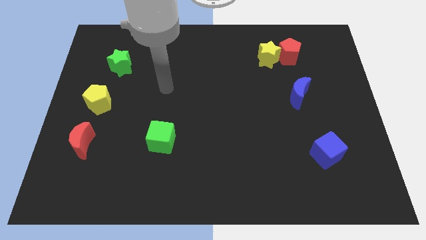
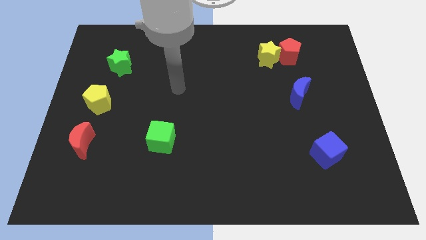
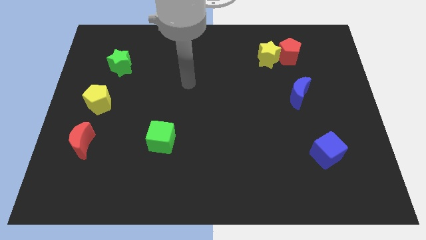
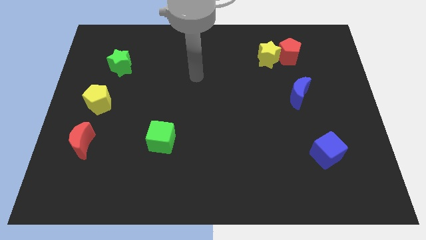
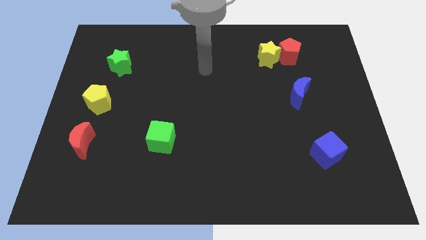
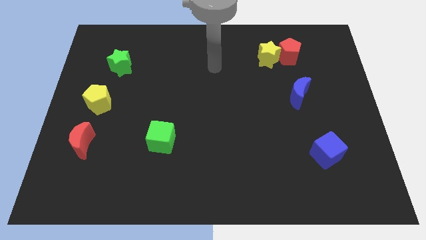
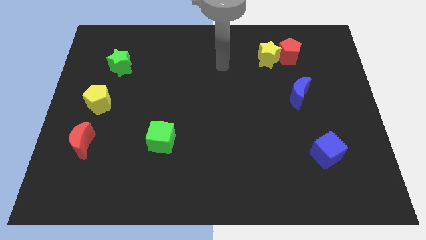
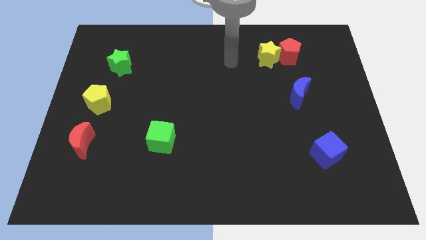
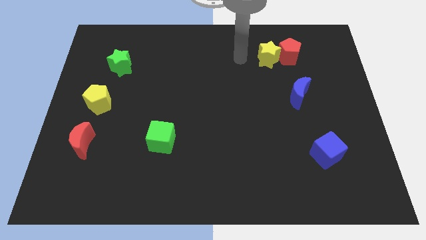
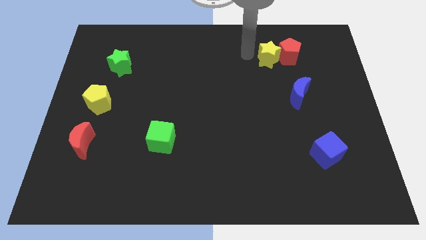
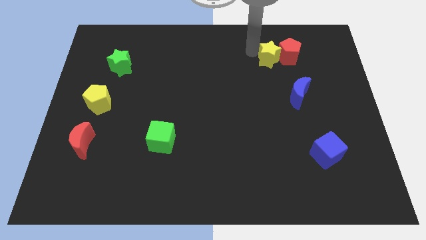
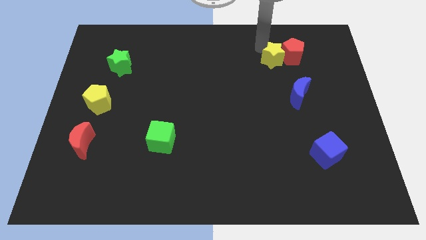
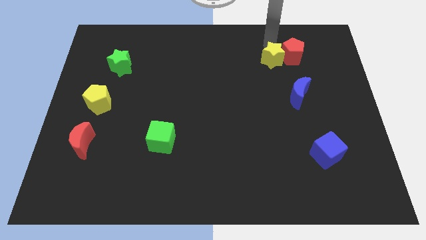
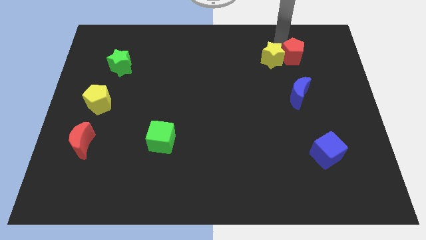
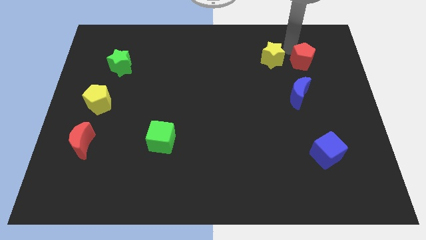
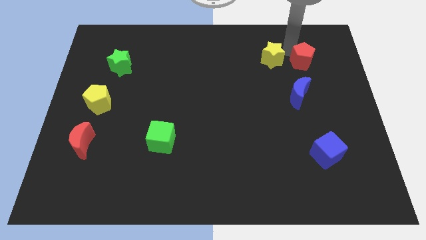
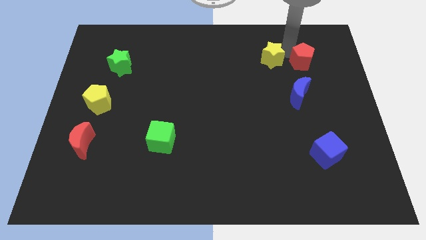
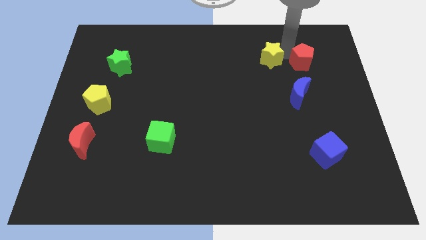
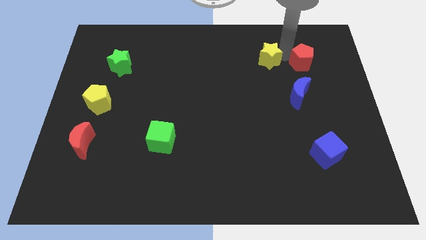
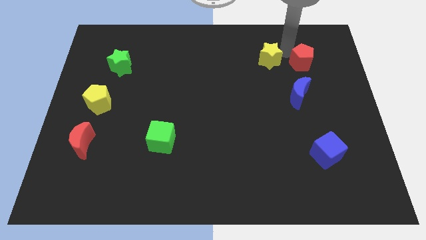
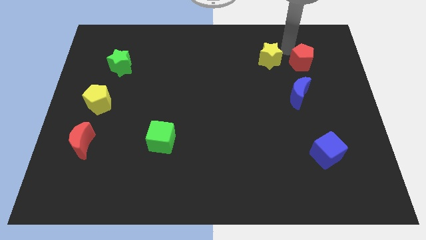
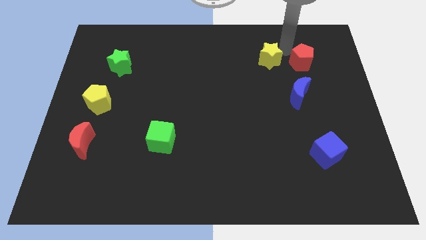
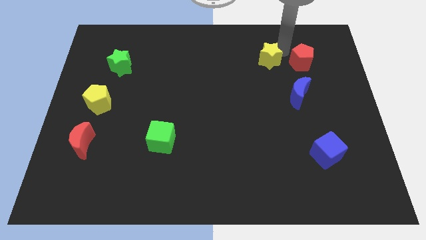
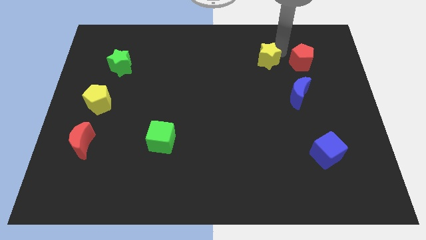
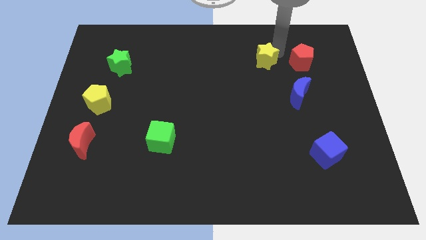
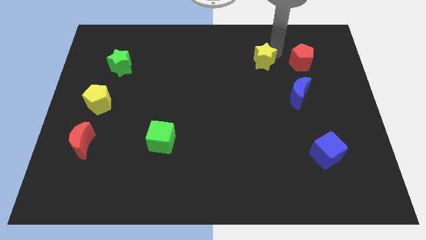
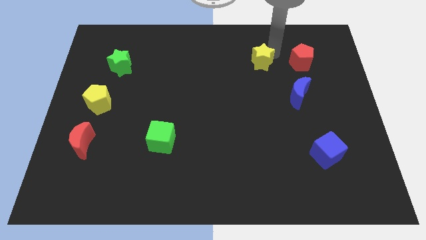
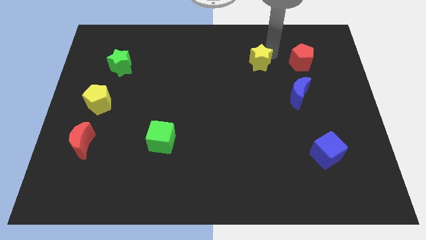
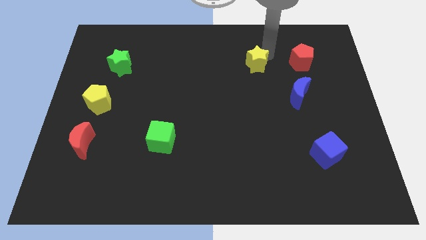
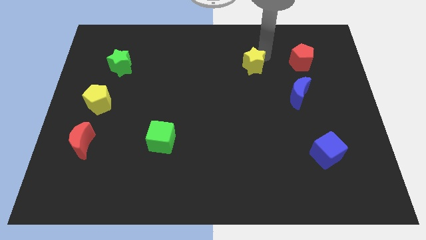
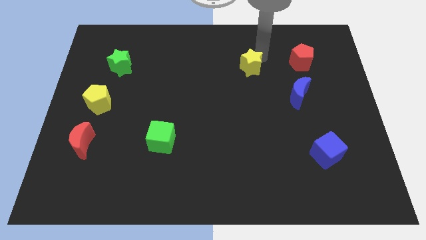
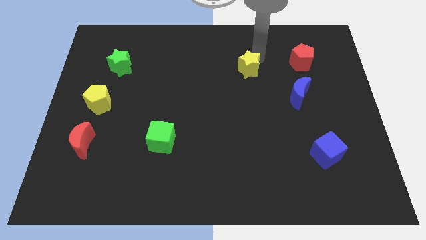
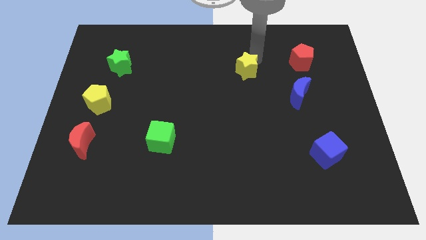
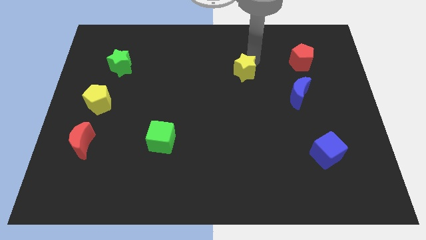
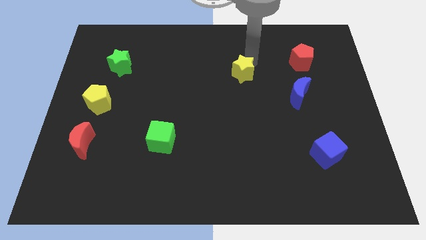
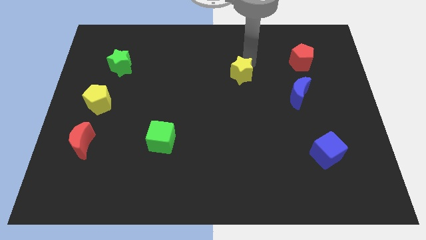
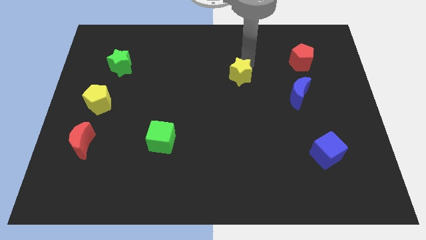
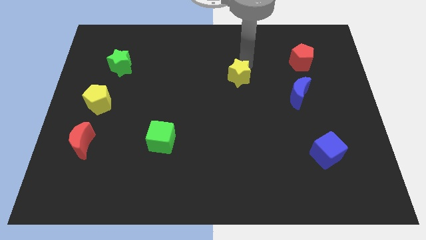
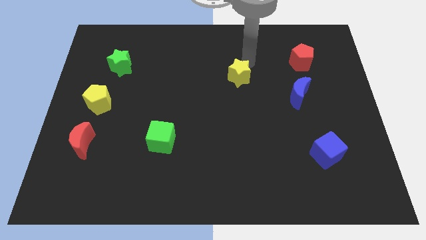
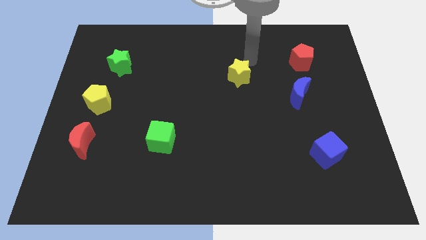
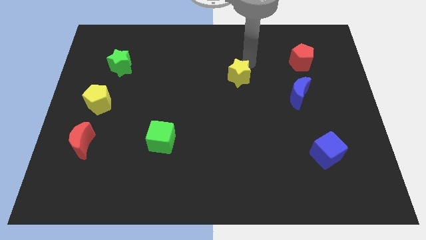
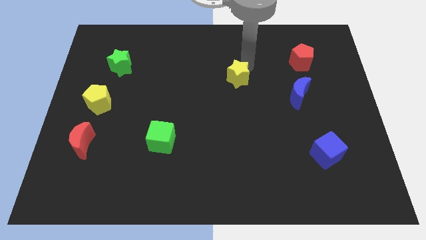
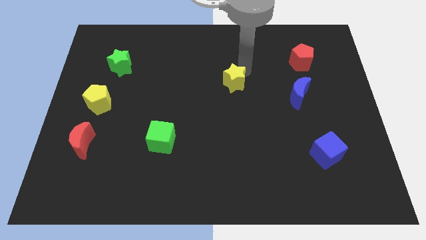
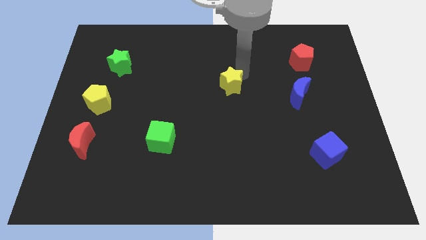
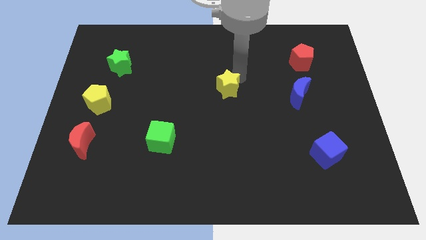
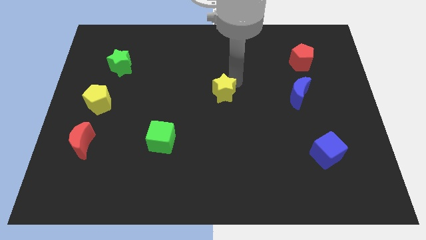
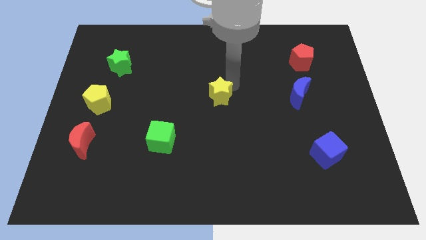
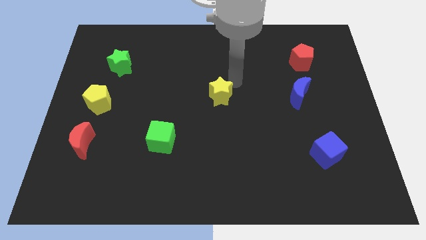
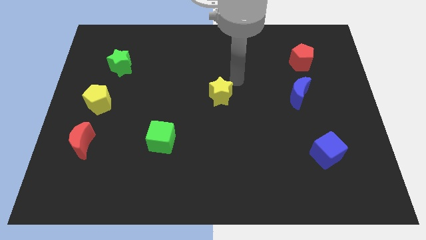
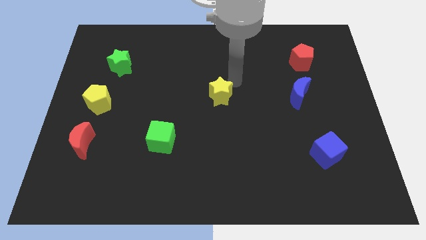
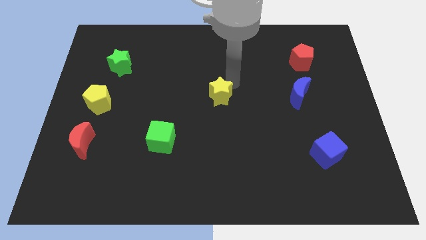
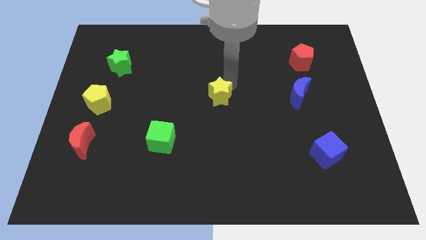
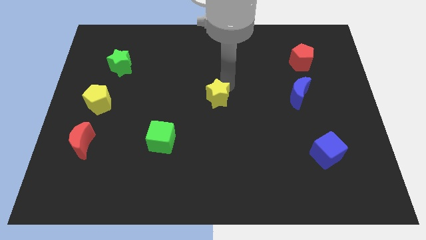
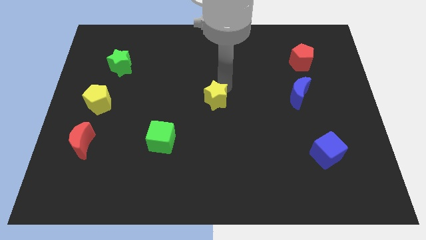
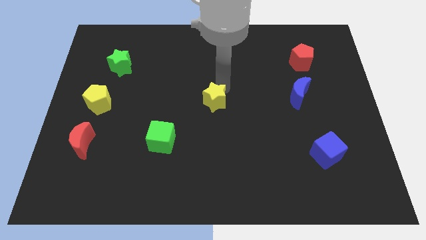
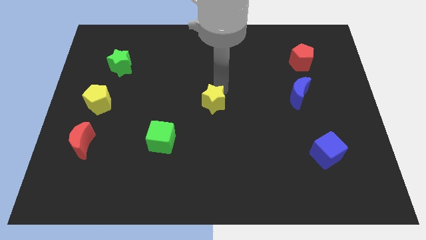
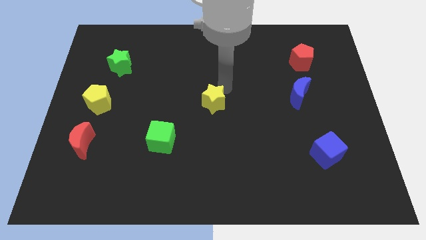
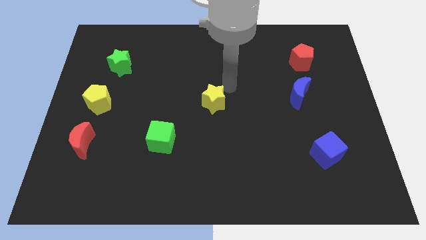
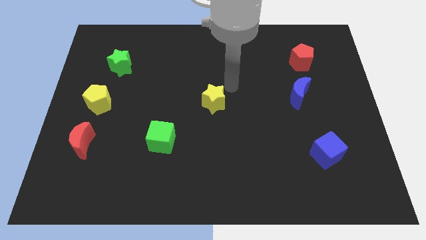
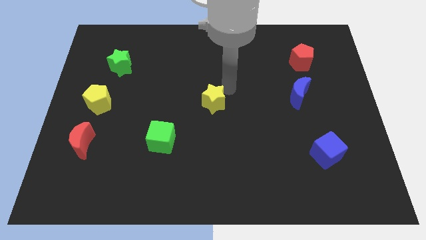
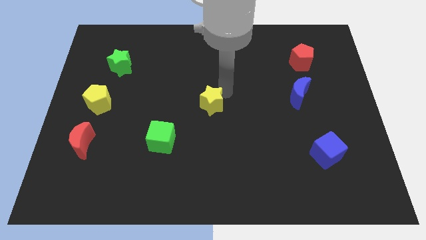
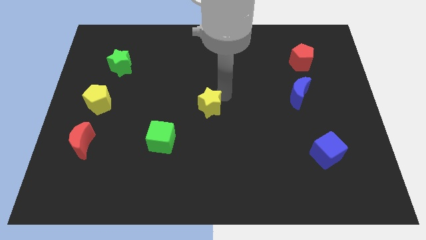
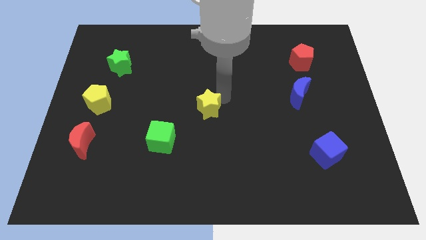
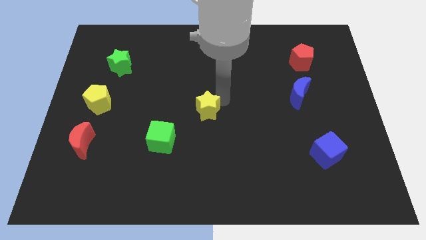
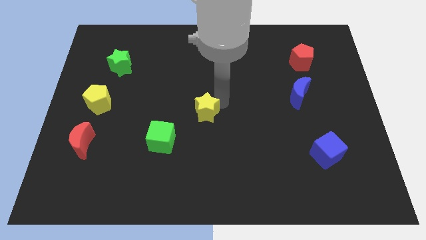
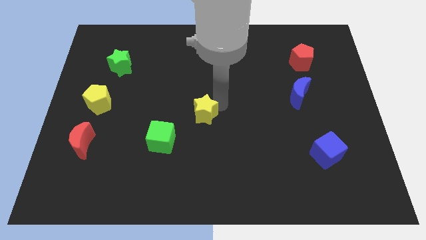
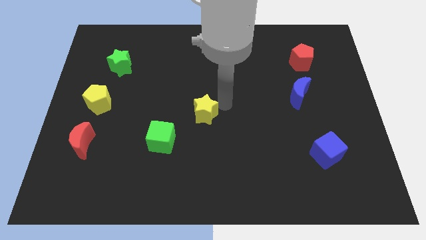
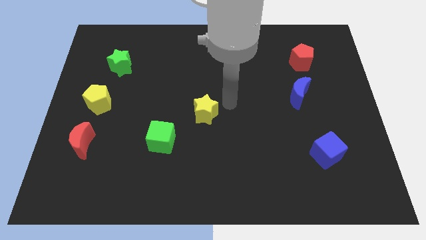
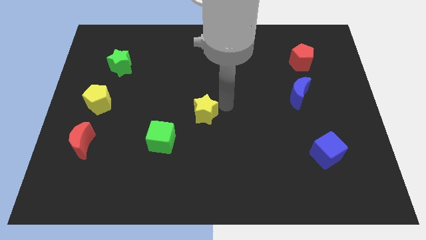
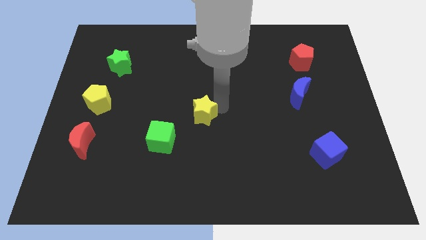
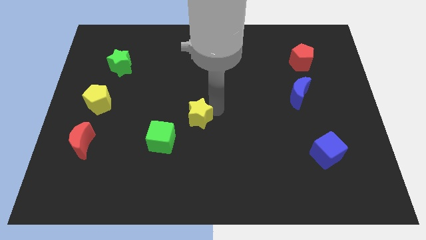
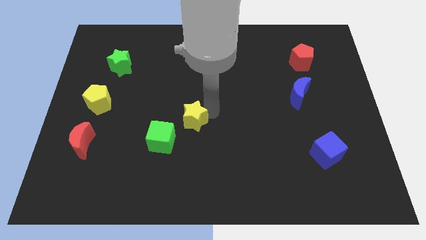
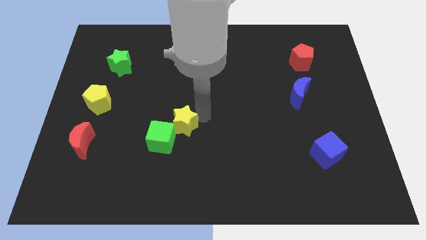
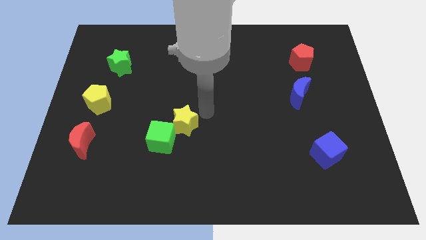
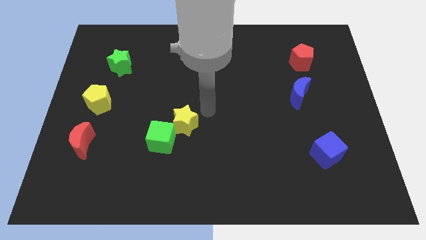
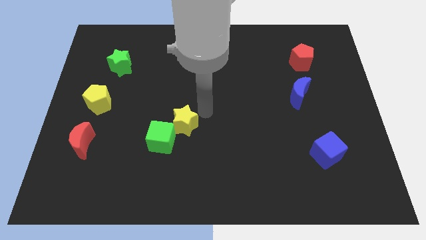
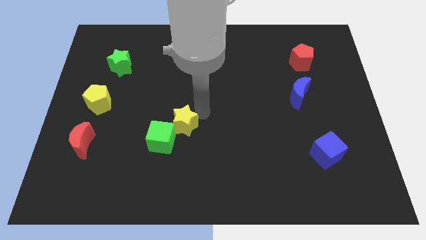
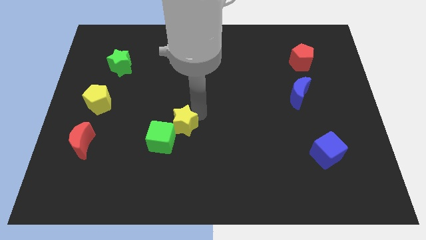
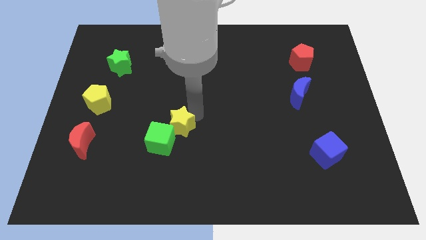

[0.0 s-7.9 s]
push the yellow star to the green cube
